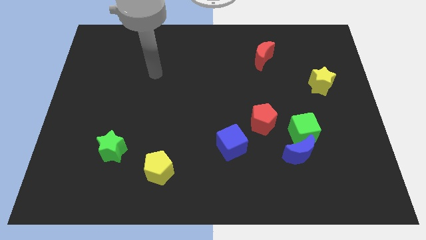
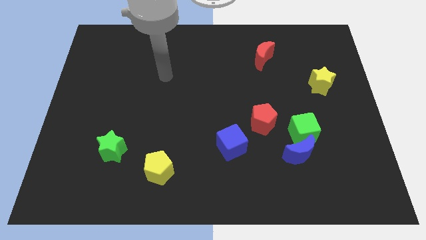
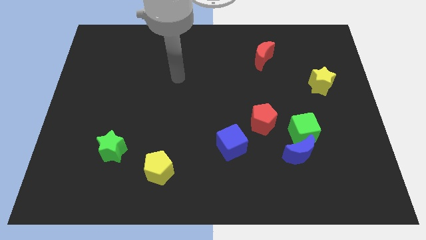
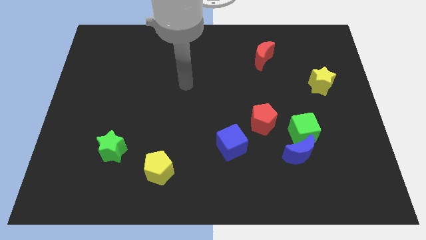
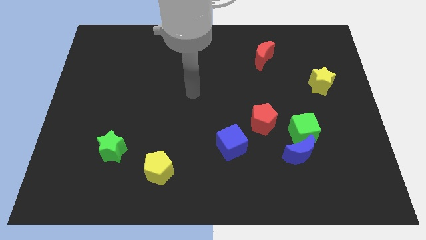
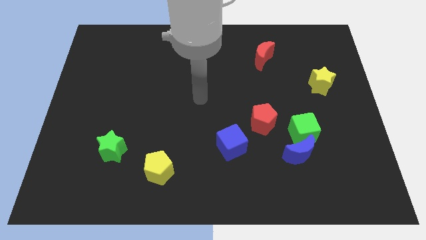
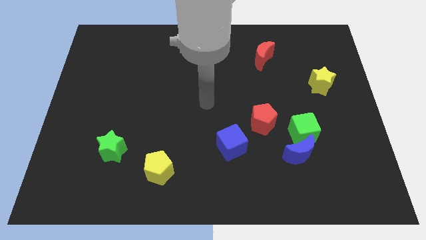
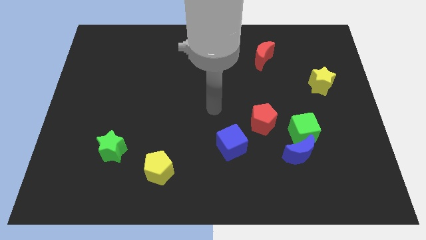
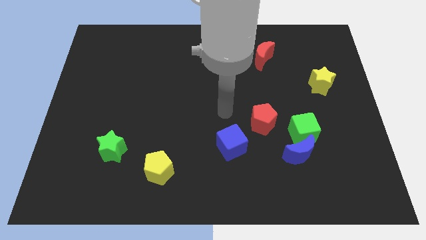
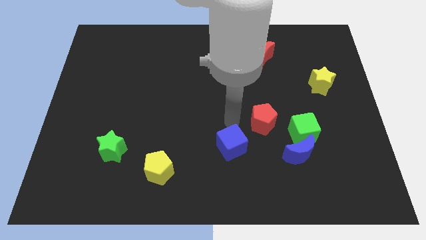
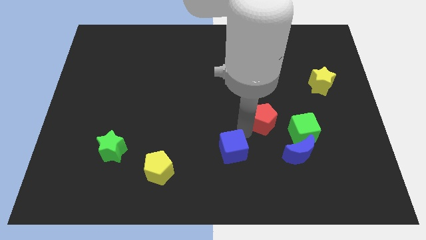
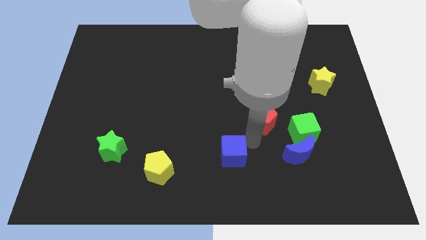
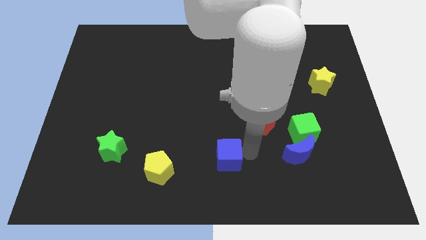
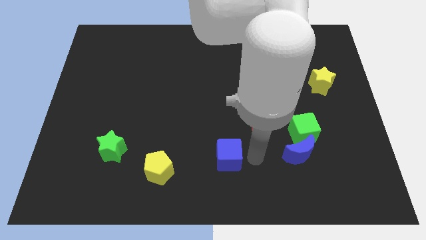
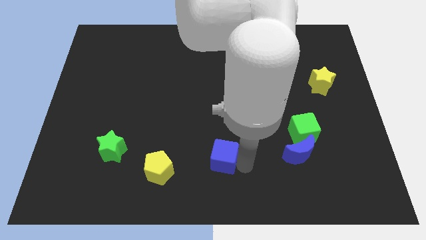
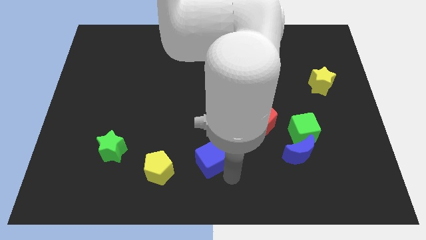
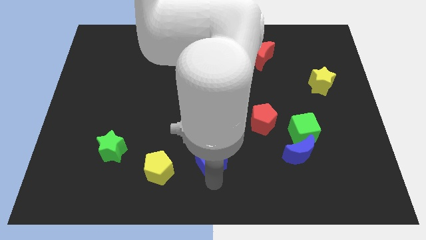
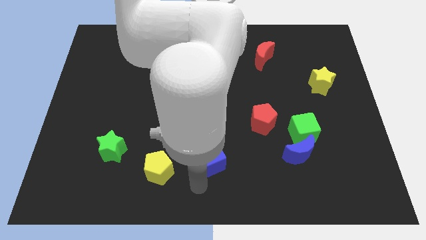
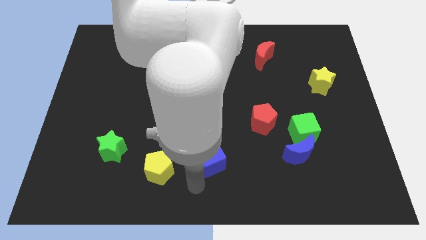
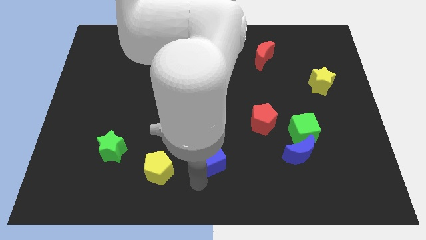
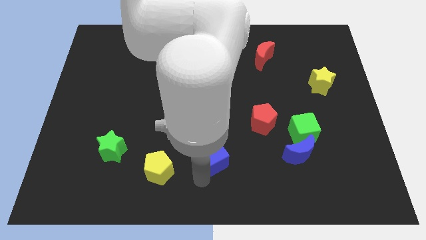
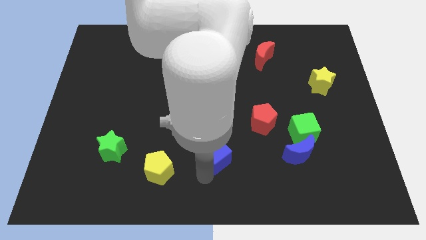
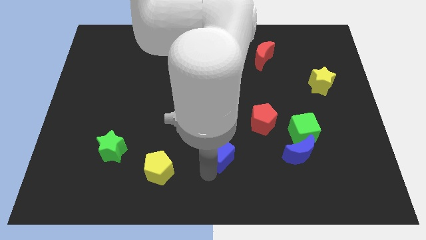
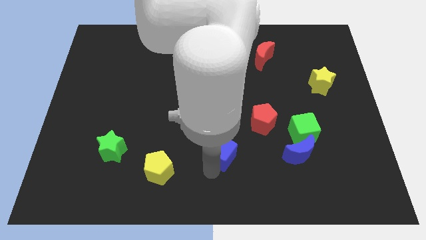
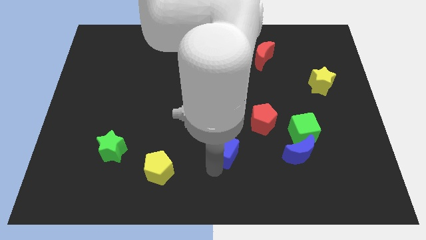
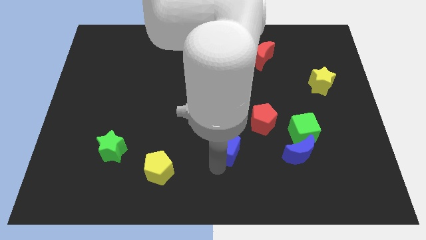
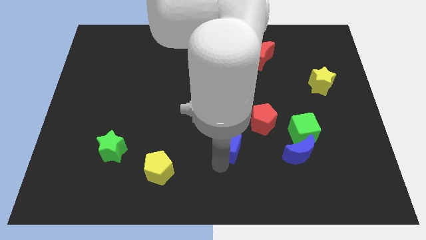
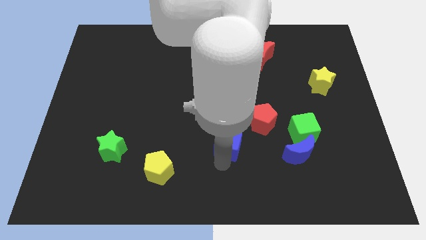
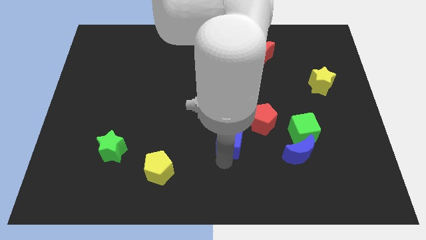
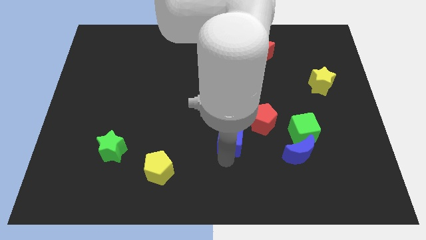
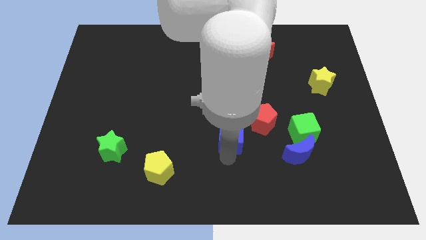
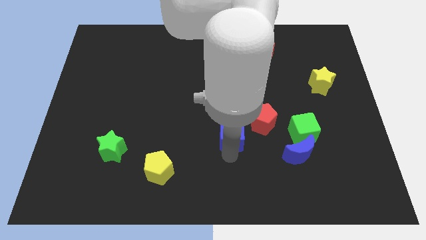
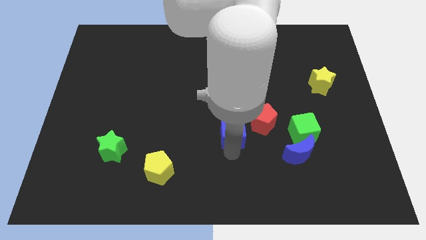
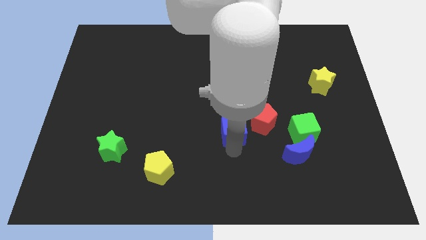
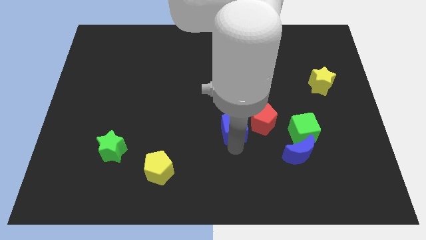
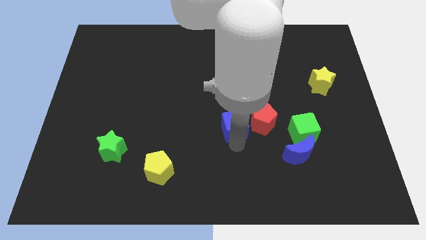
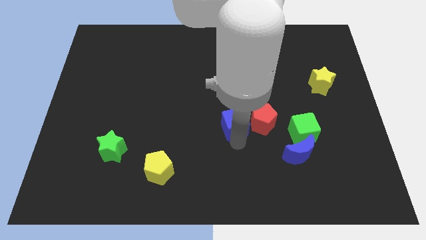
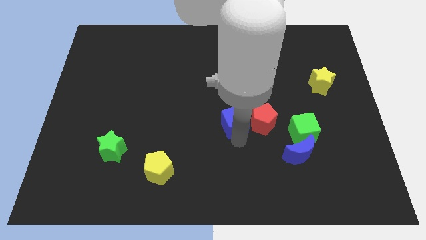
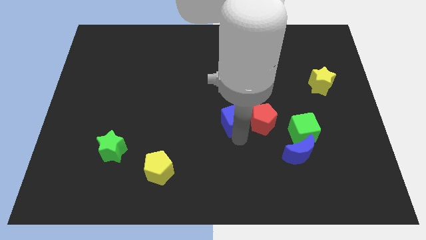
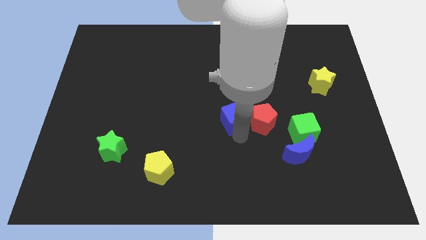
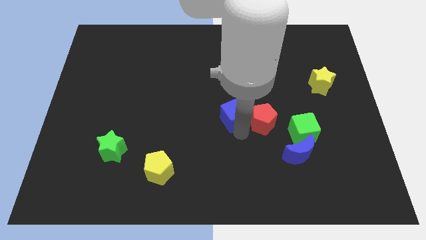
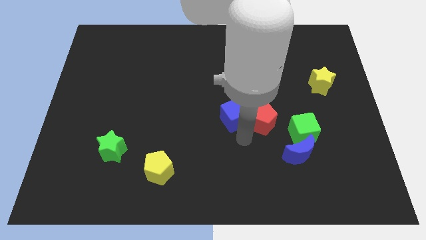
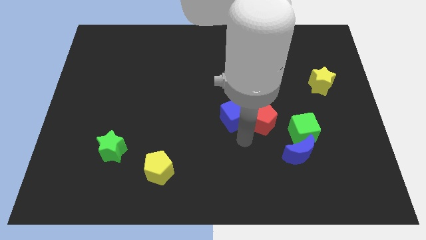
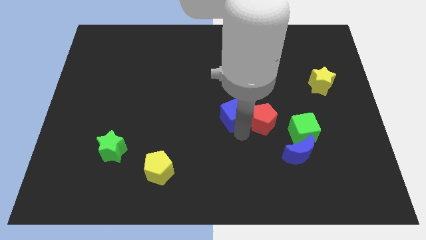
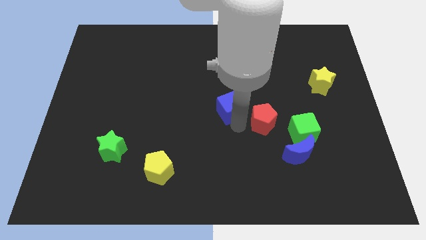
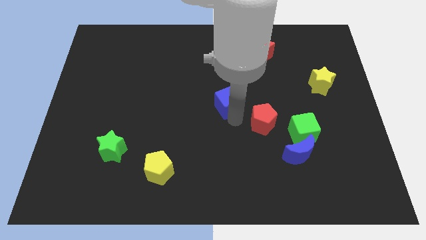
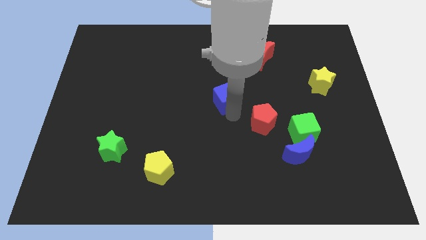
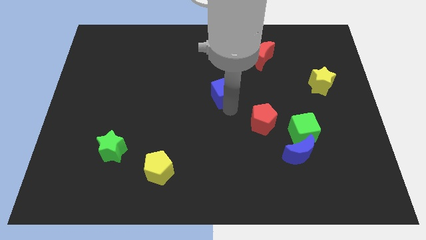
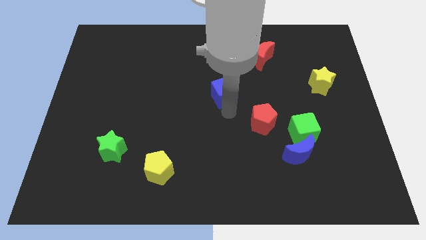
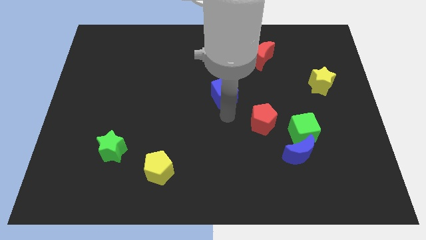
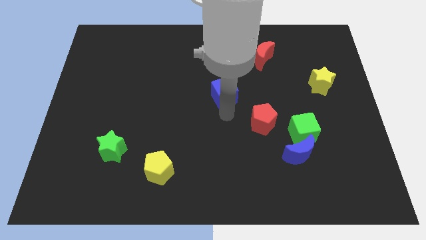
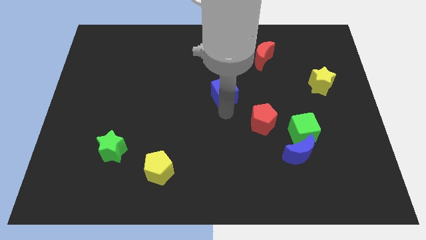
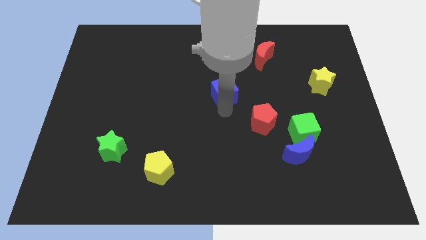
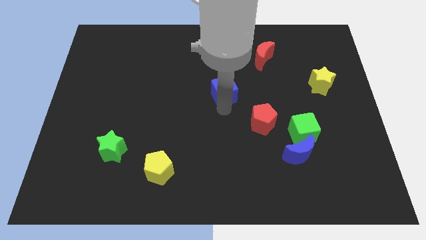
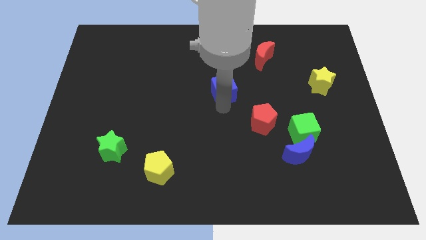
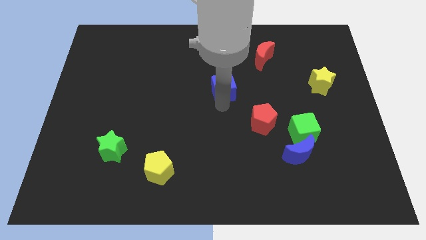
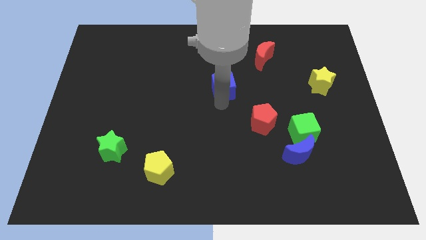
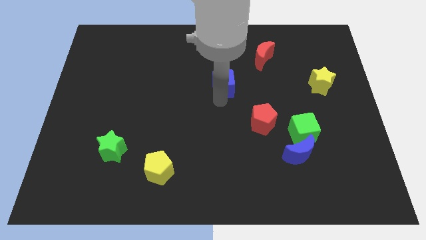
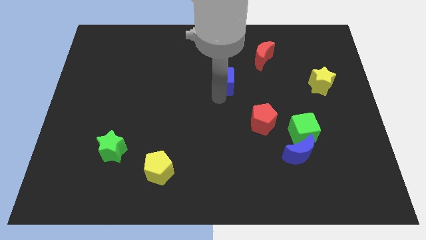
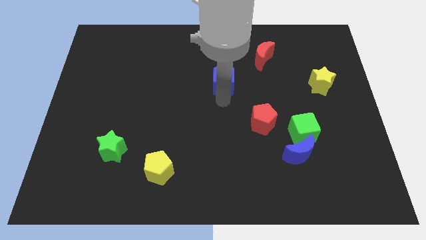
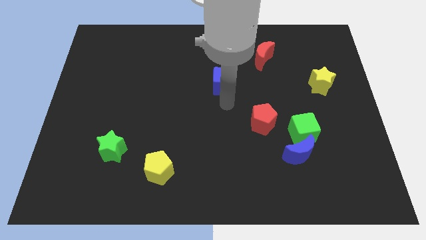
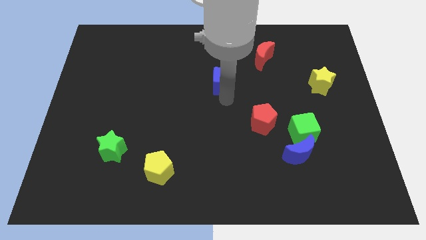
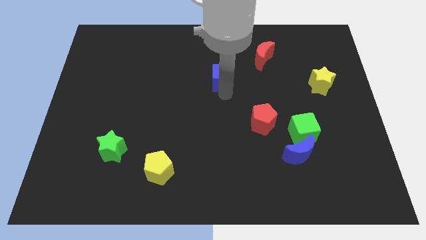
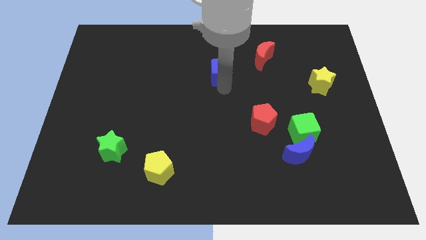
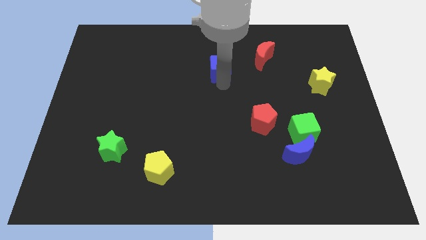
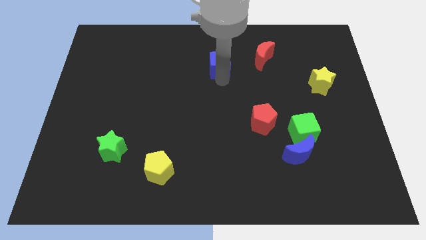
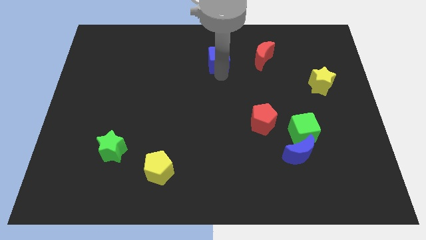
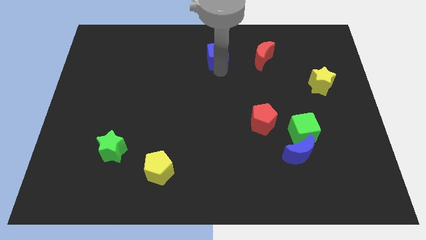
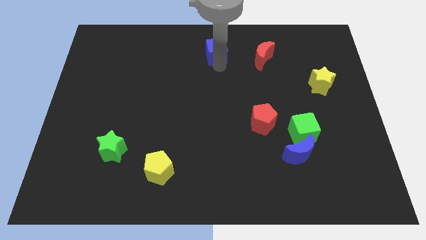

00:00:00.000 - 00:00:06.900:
slide the blue cube to the top side

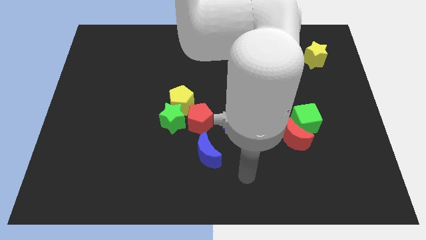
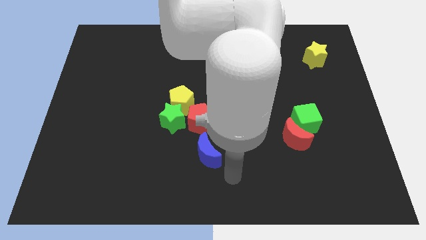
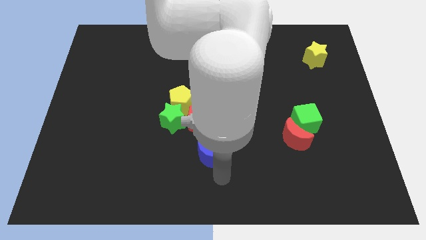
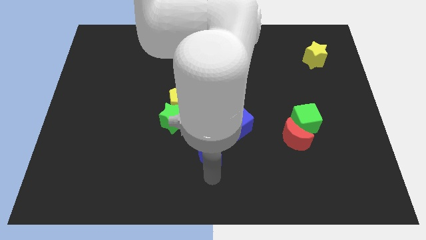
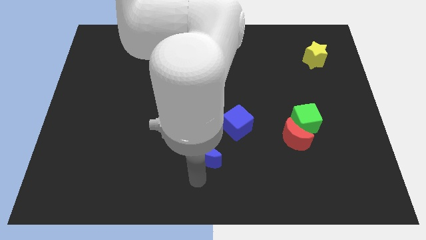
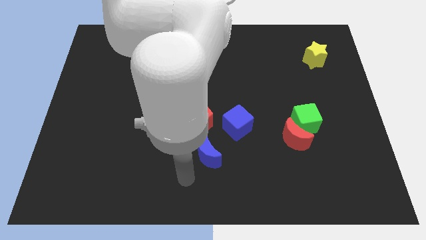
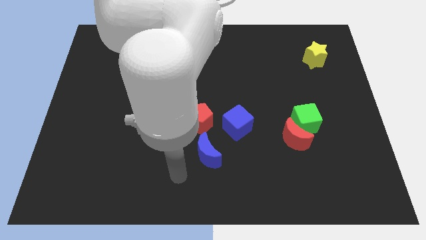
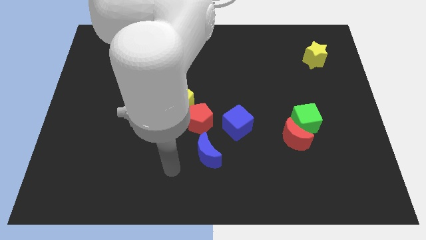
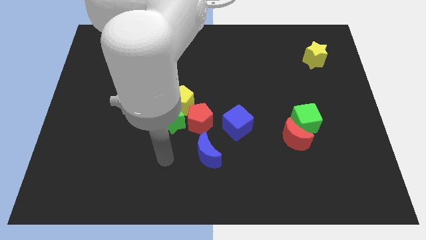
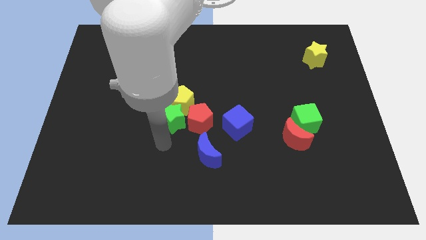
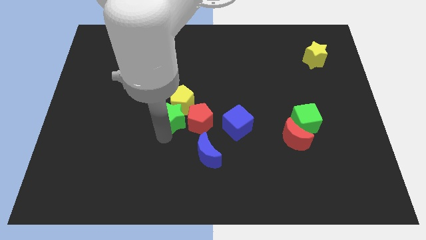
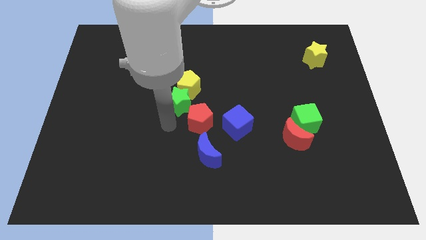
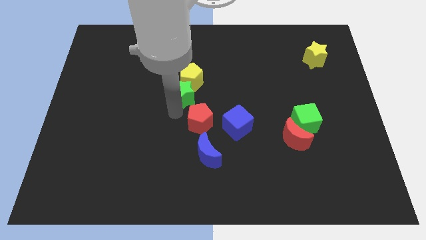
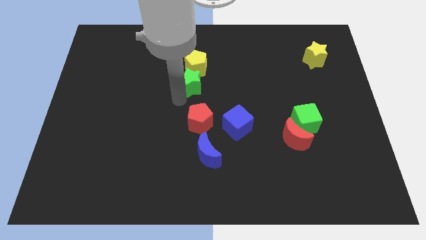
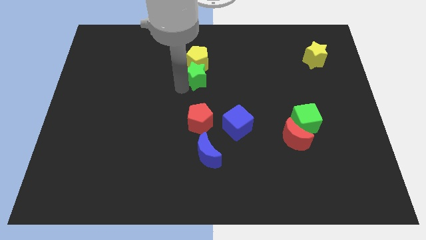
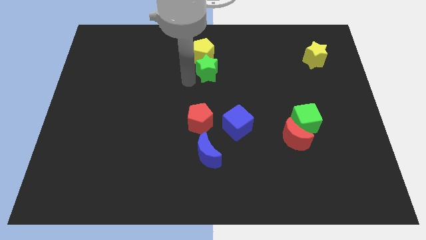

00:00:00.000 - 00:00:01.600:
slide the yellow pentagon to the towards your base
